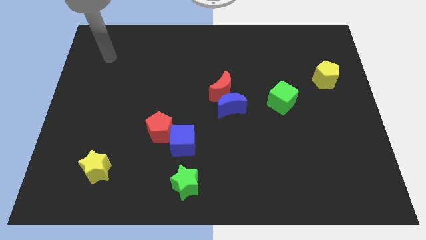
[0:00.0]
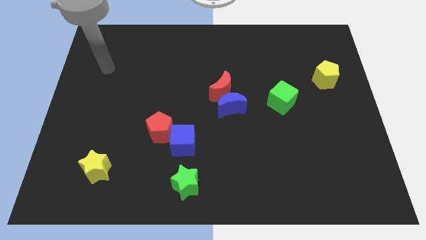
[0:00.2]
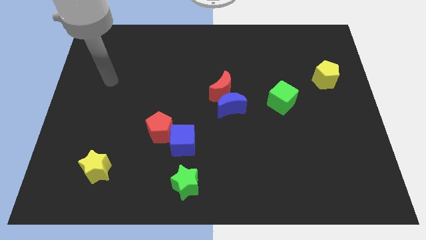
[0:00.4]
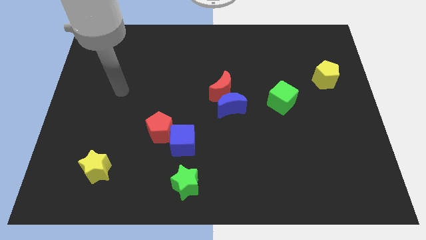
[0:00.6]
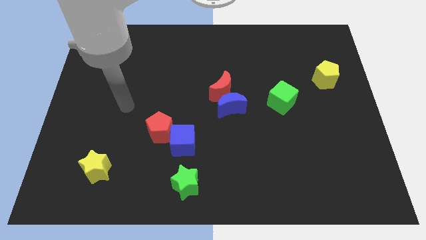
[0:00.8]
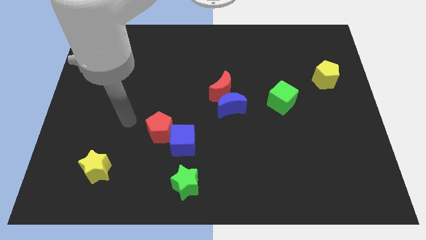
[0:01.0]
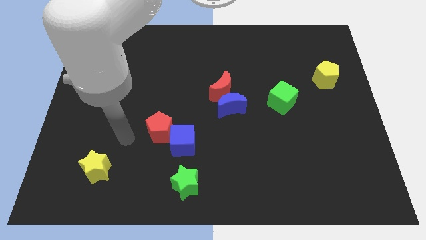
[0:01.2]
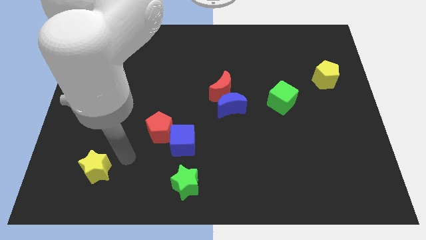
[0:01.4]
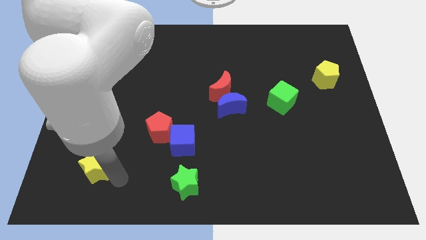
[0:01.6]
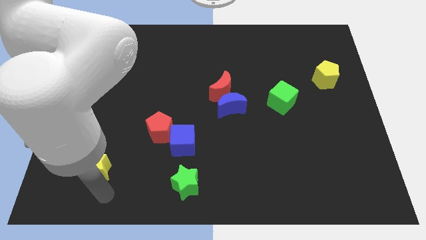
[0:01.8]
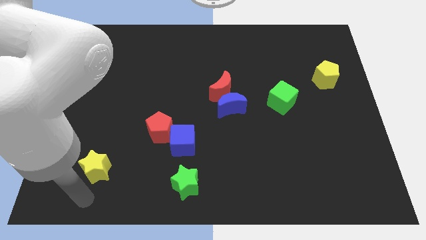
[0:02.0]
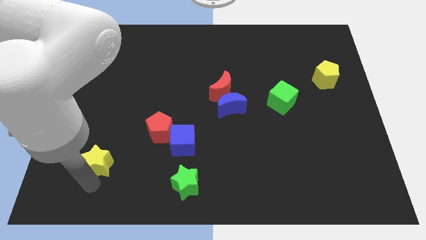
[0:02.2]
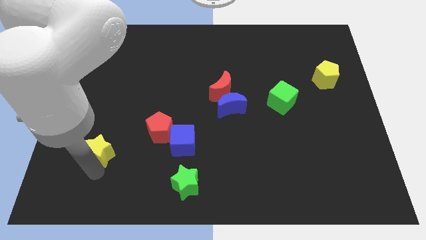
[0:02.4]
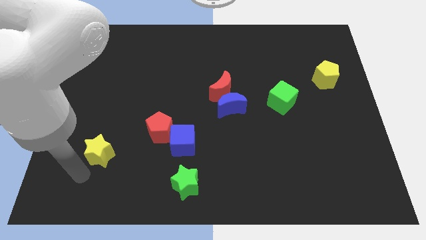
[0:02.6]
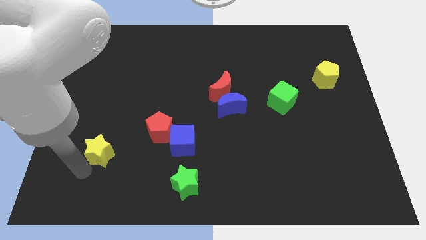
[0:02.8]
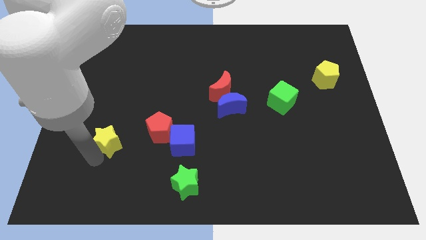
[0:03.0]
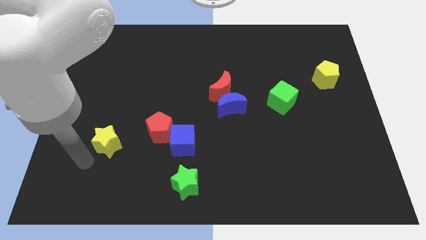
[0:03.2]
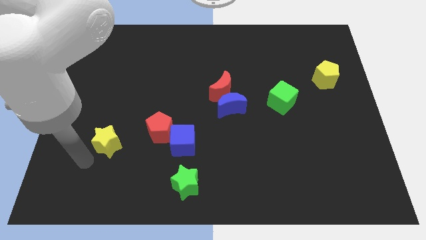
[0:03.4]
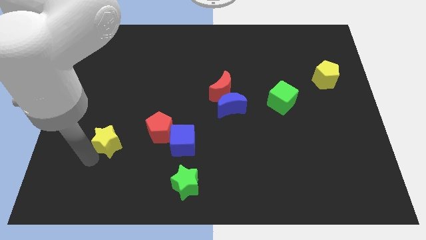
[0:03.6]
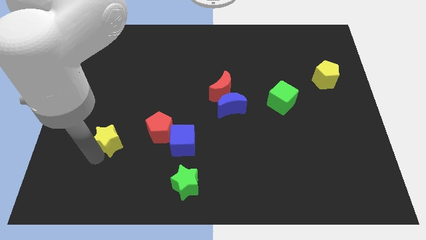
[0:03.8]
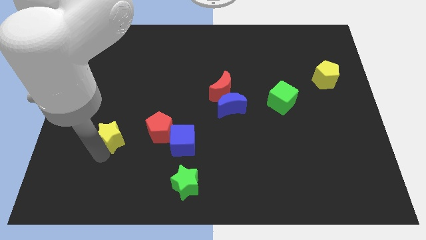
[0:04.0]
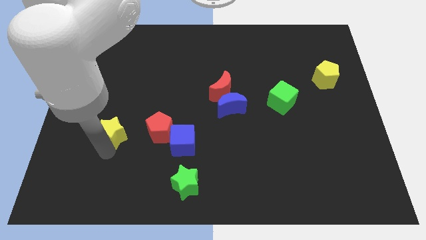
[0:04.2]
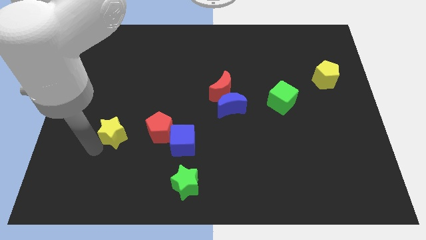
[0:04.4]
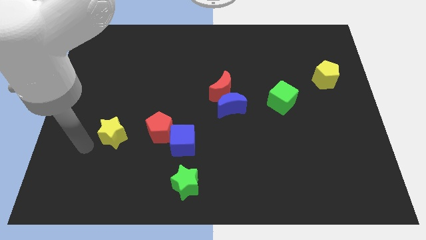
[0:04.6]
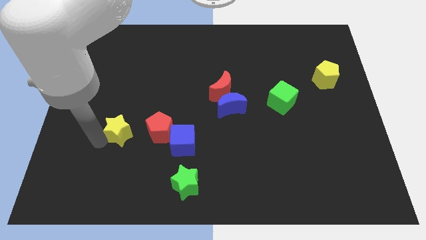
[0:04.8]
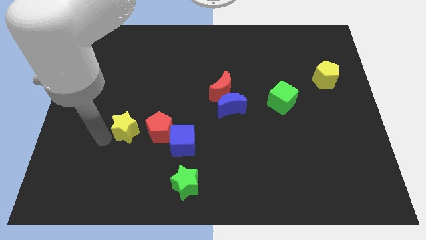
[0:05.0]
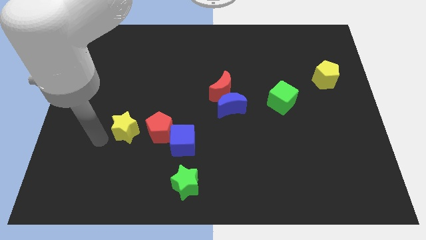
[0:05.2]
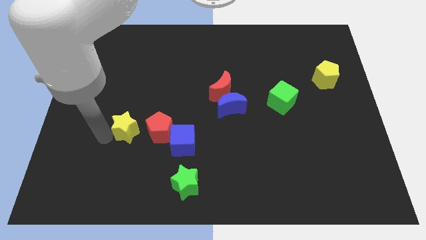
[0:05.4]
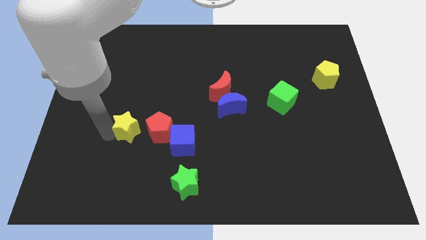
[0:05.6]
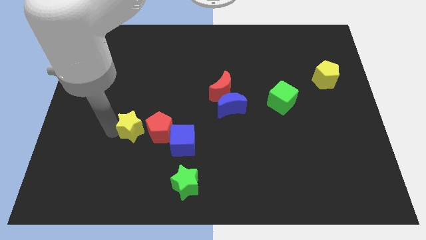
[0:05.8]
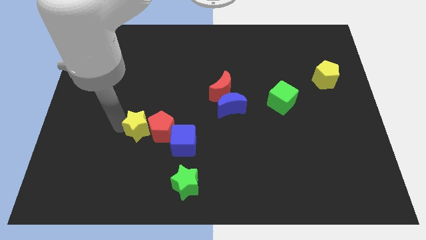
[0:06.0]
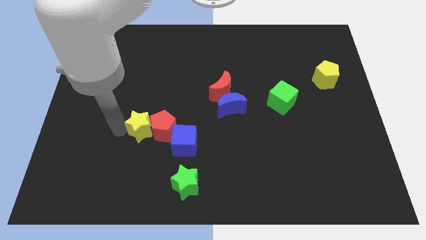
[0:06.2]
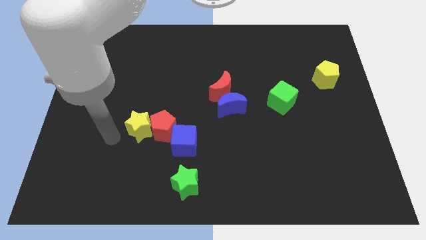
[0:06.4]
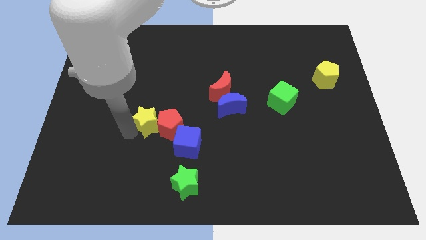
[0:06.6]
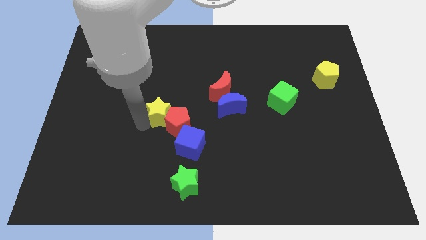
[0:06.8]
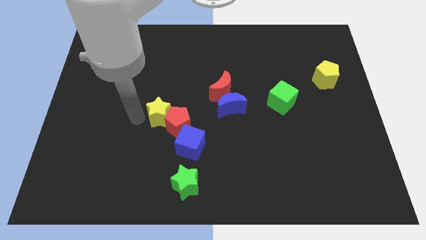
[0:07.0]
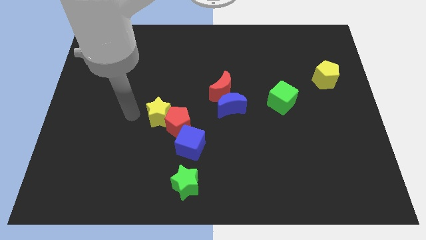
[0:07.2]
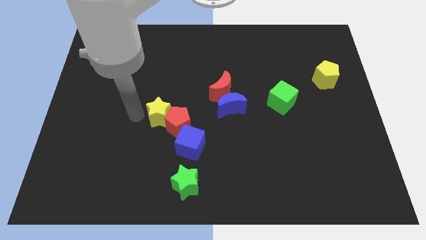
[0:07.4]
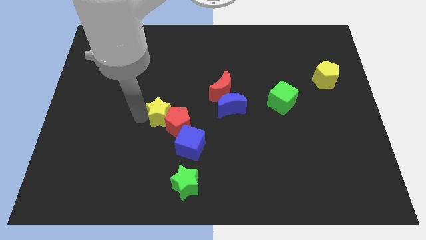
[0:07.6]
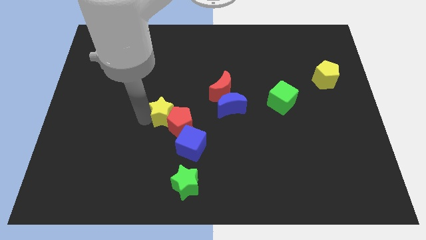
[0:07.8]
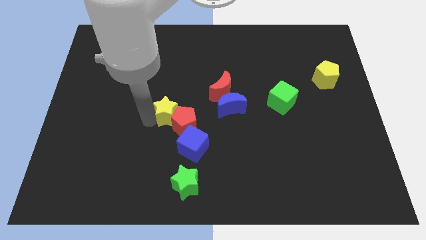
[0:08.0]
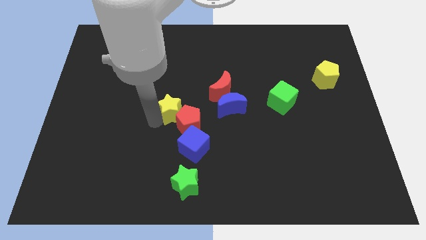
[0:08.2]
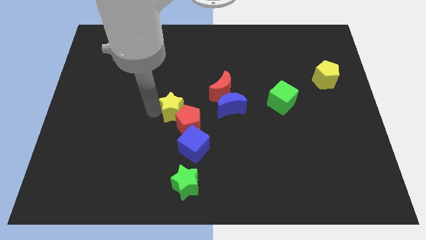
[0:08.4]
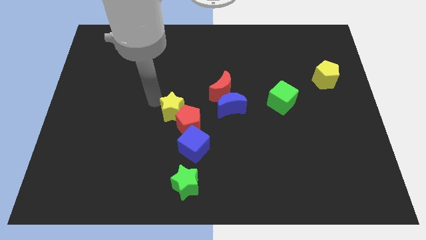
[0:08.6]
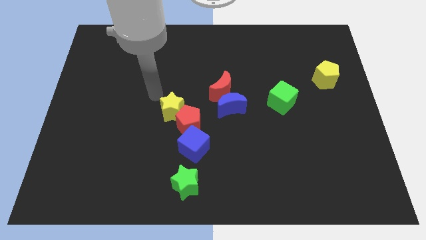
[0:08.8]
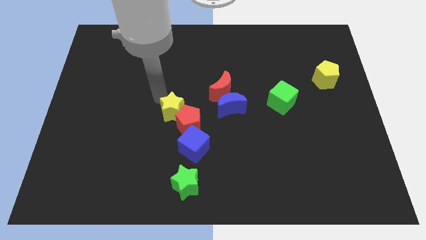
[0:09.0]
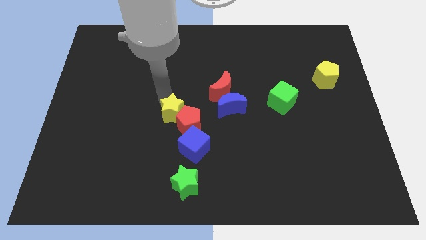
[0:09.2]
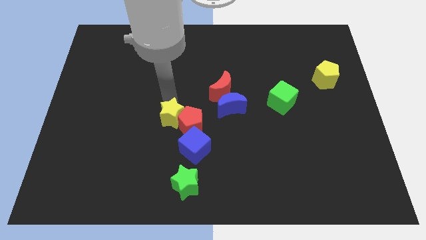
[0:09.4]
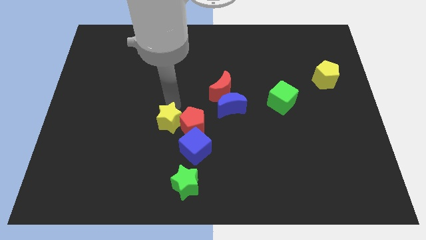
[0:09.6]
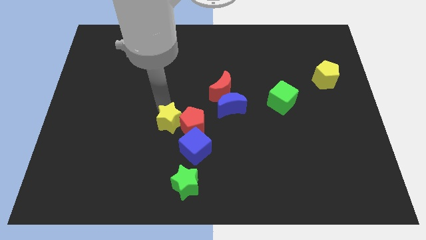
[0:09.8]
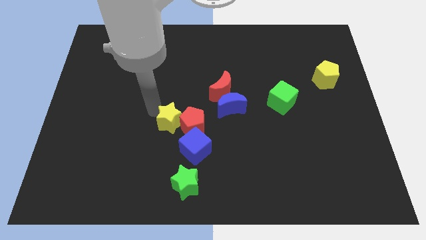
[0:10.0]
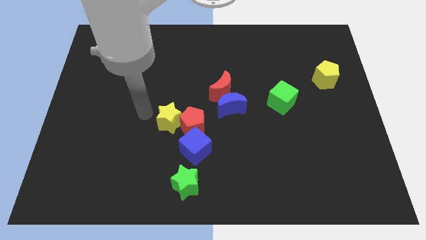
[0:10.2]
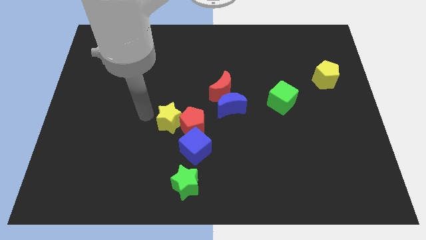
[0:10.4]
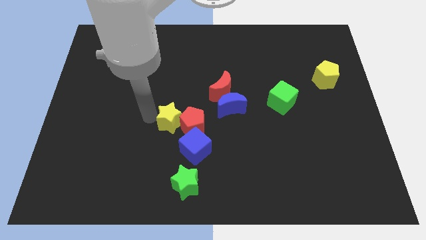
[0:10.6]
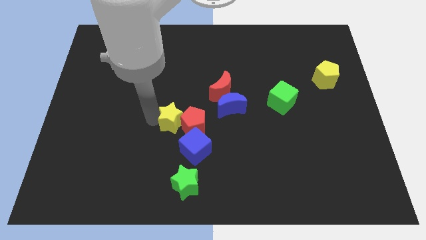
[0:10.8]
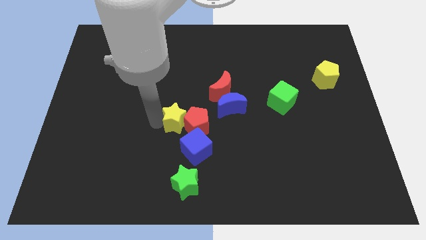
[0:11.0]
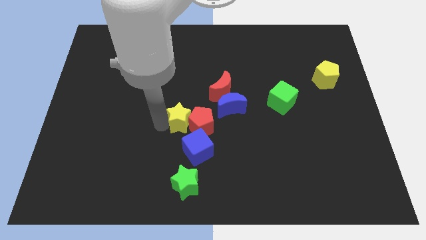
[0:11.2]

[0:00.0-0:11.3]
move the yellow star above the green star

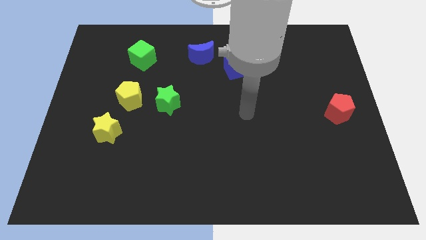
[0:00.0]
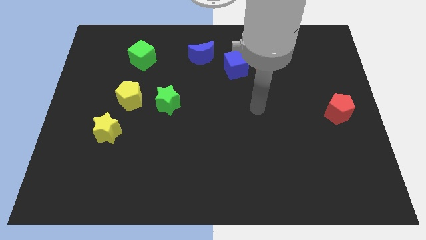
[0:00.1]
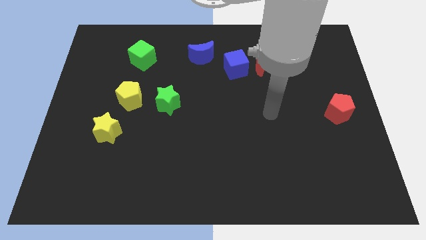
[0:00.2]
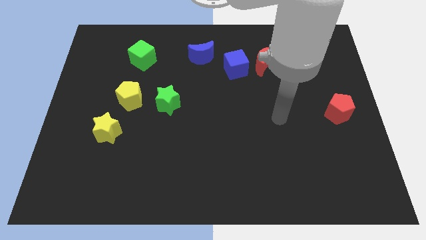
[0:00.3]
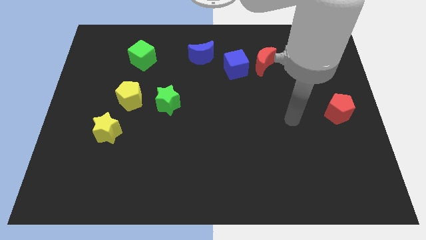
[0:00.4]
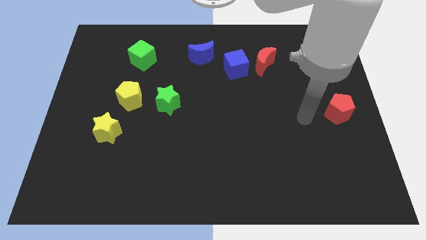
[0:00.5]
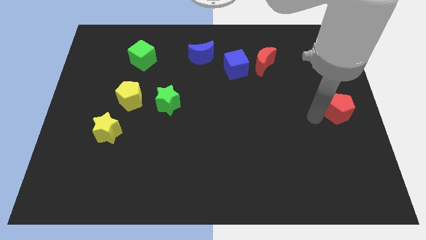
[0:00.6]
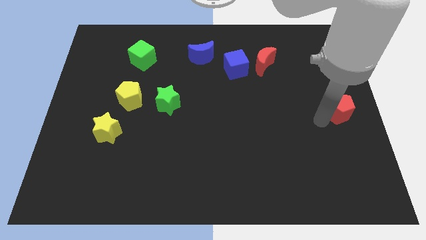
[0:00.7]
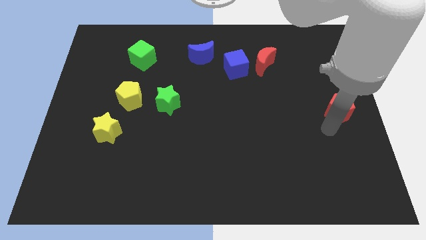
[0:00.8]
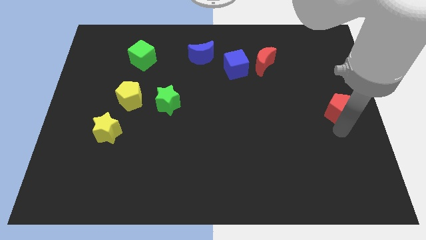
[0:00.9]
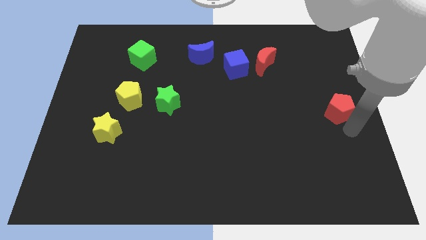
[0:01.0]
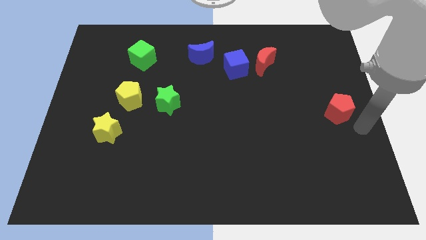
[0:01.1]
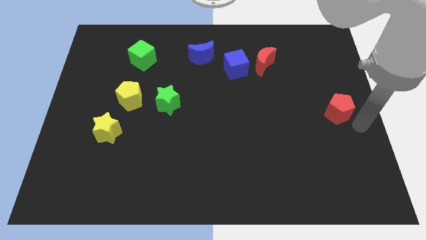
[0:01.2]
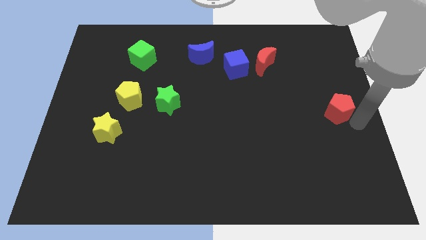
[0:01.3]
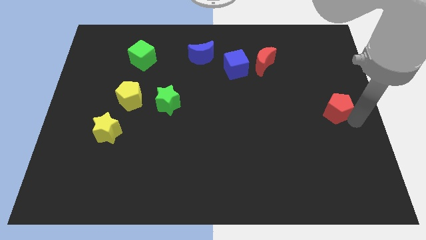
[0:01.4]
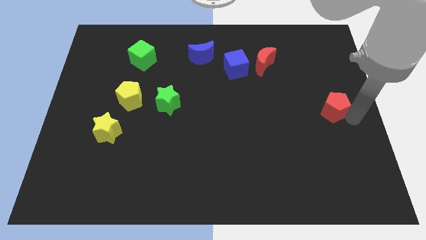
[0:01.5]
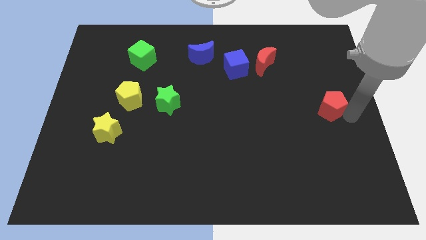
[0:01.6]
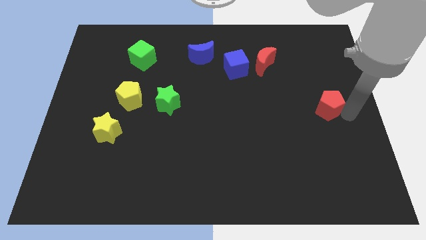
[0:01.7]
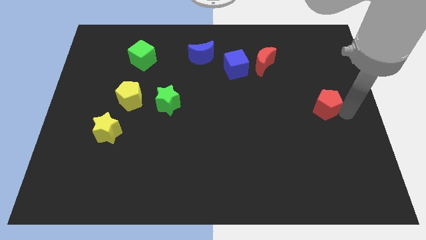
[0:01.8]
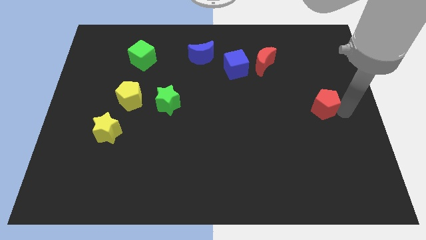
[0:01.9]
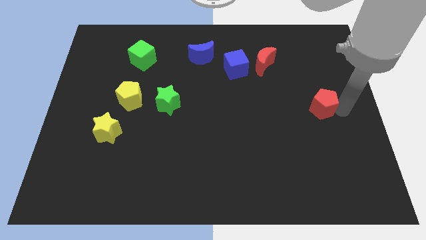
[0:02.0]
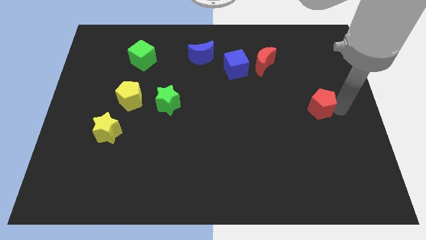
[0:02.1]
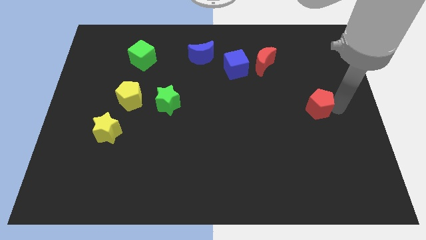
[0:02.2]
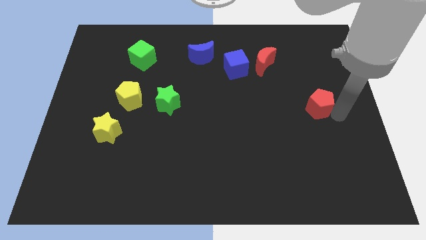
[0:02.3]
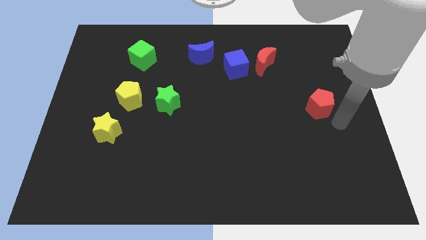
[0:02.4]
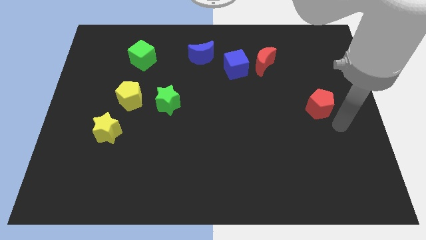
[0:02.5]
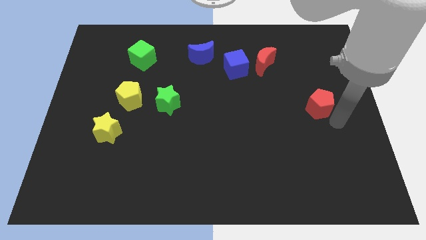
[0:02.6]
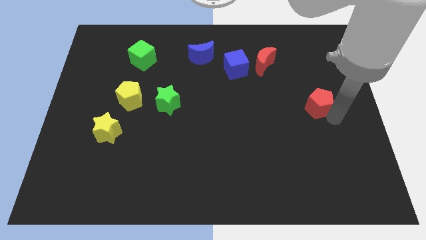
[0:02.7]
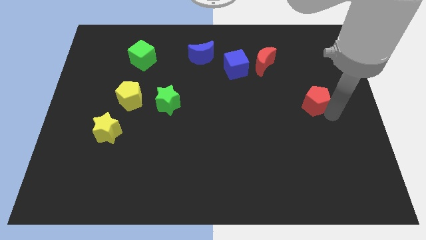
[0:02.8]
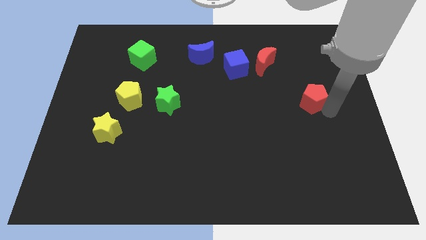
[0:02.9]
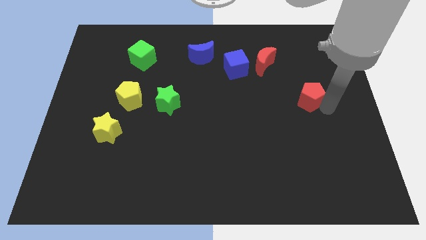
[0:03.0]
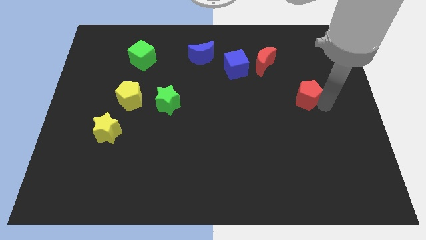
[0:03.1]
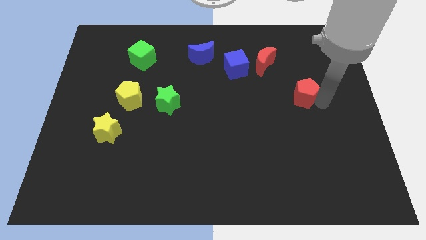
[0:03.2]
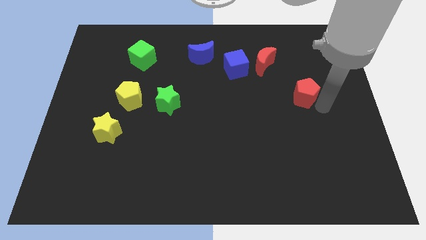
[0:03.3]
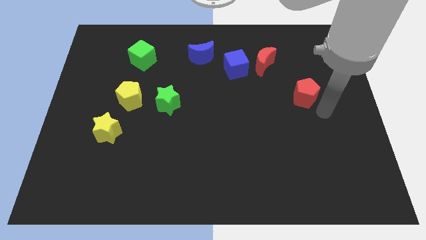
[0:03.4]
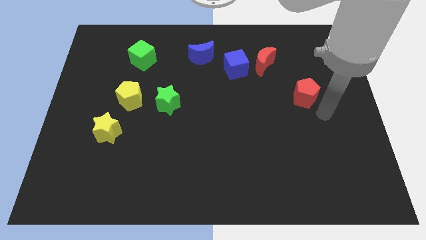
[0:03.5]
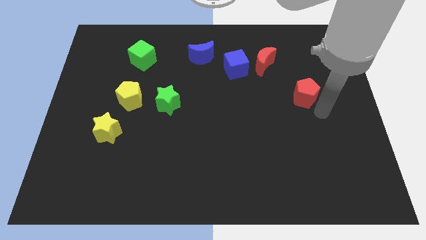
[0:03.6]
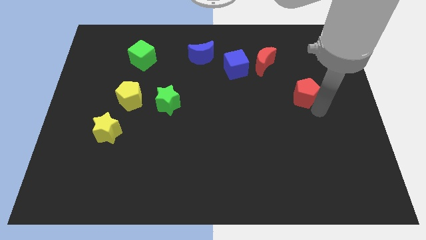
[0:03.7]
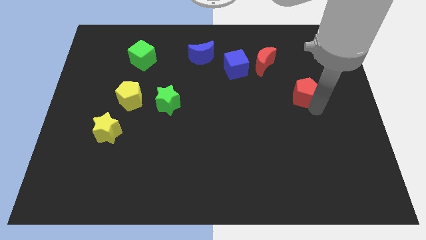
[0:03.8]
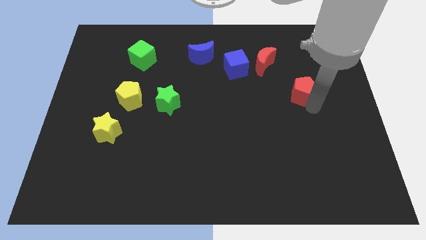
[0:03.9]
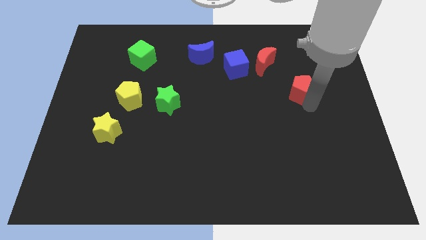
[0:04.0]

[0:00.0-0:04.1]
move the red pentagon to the bottom right side of the red moon
